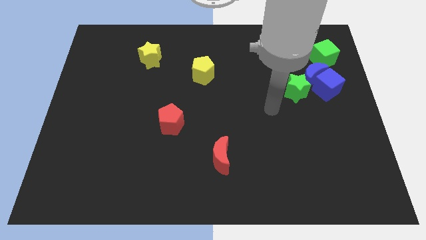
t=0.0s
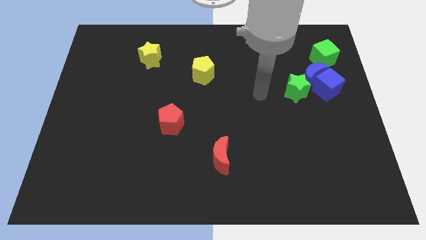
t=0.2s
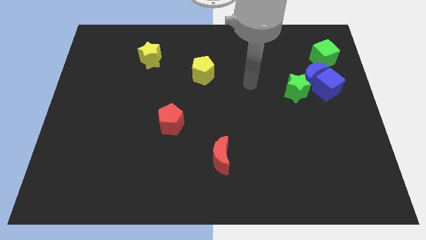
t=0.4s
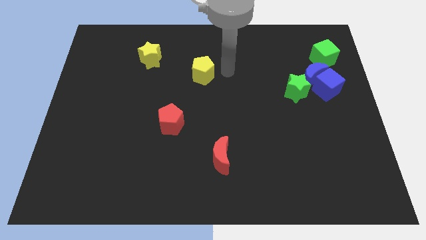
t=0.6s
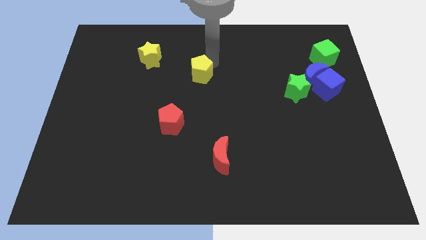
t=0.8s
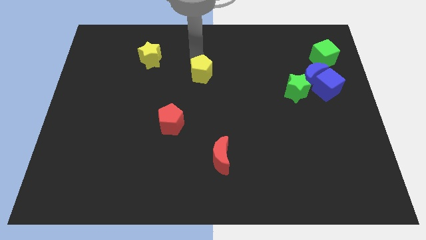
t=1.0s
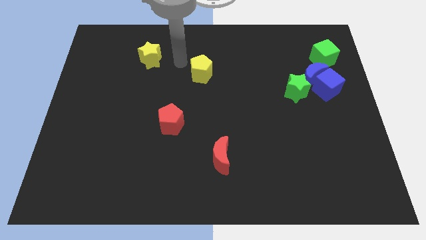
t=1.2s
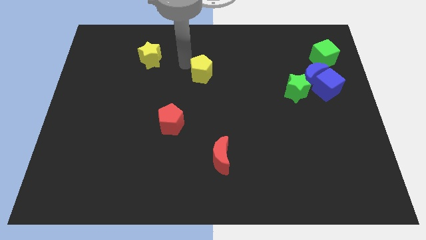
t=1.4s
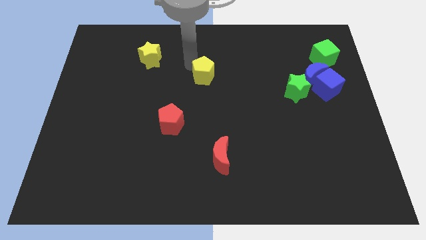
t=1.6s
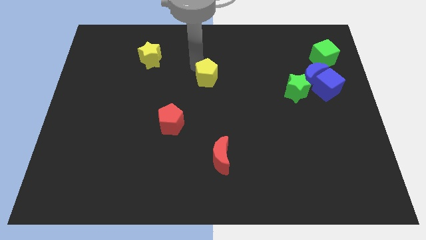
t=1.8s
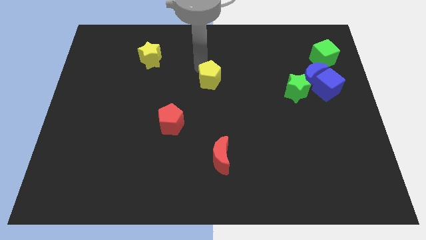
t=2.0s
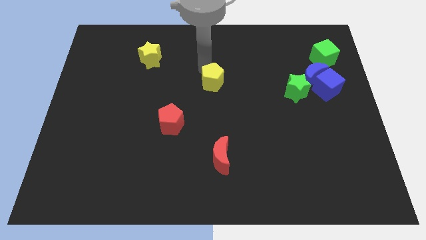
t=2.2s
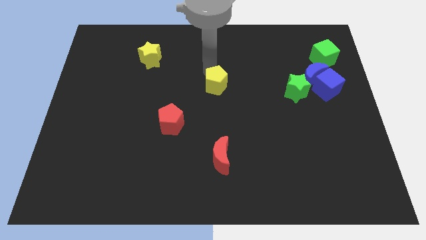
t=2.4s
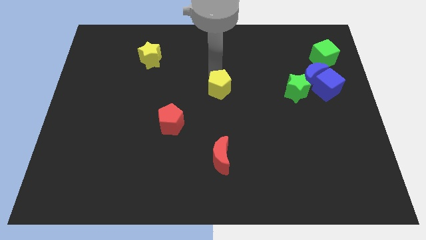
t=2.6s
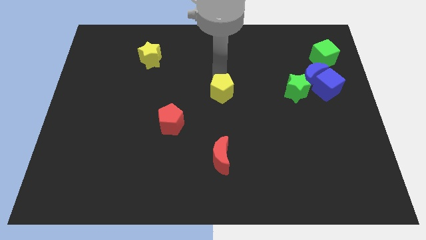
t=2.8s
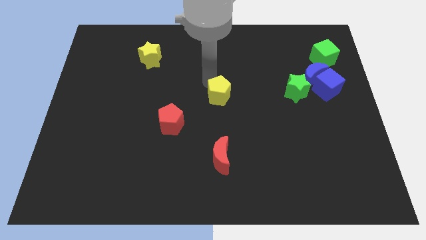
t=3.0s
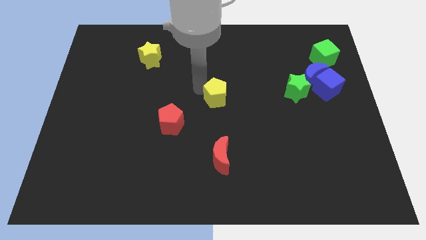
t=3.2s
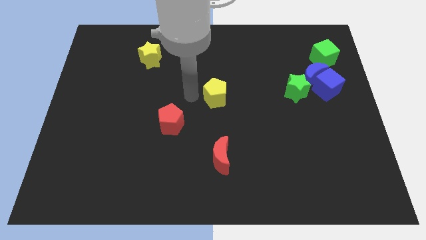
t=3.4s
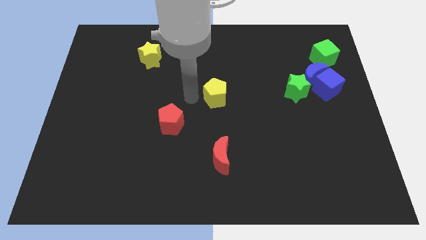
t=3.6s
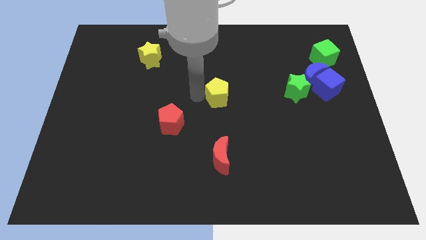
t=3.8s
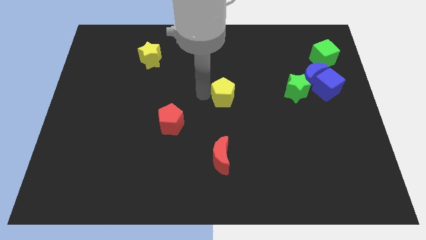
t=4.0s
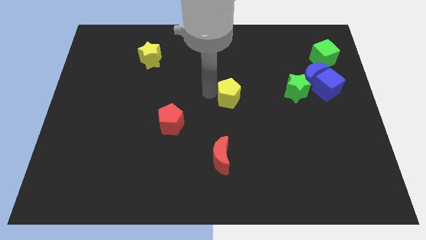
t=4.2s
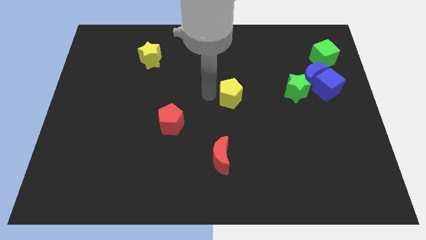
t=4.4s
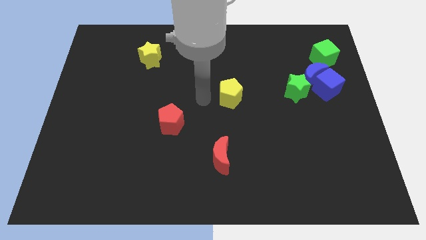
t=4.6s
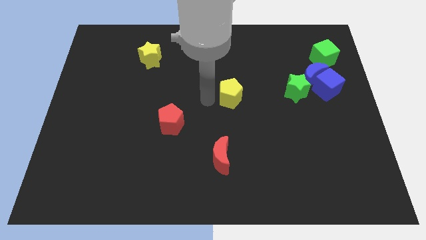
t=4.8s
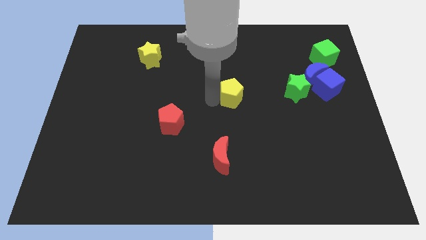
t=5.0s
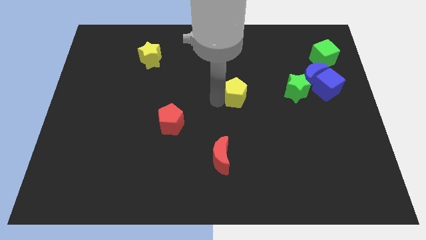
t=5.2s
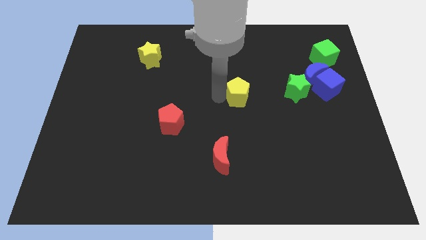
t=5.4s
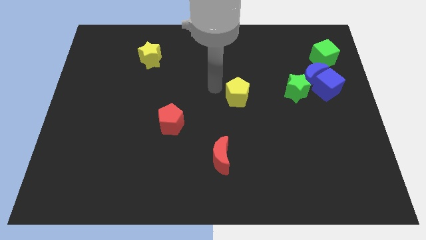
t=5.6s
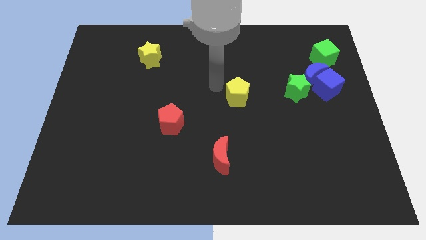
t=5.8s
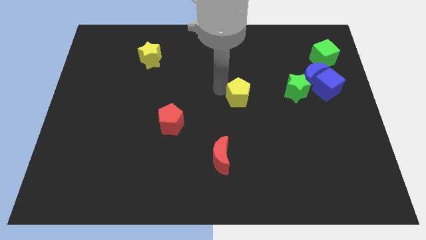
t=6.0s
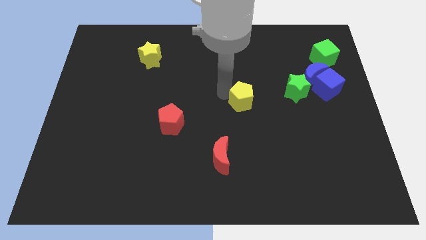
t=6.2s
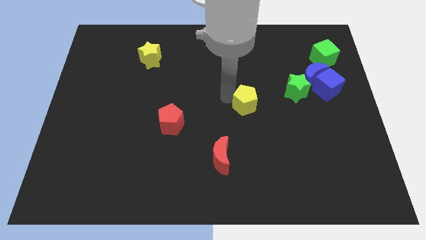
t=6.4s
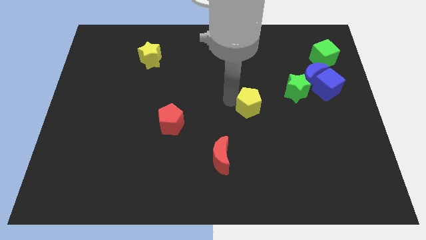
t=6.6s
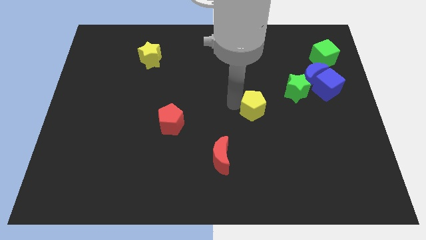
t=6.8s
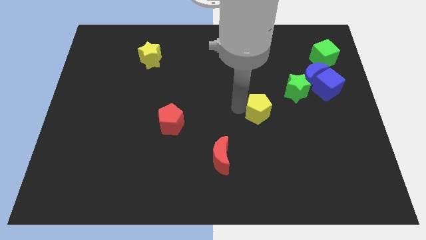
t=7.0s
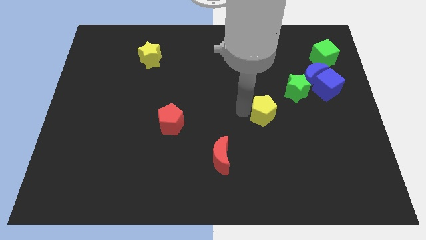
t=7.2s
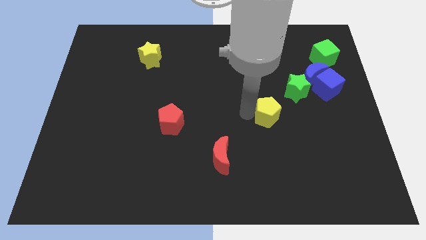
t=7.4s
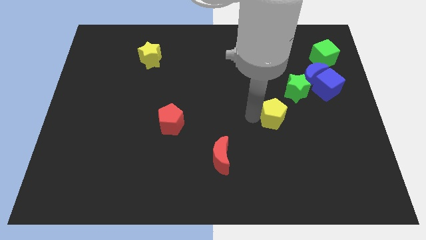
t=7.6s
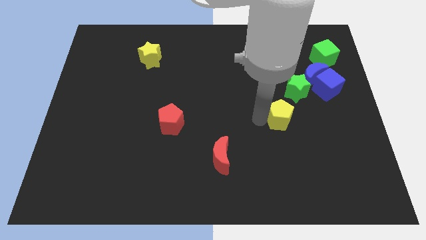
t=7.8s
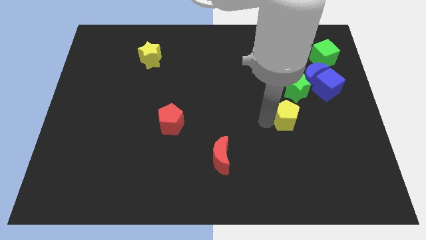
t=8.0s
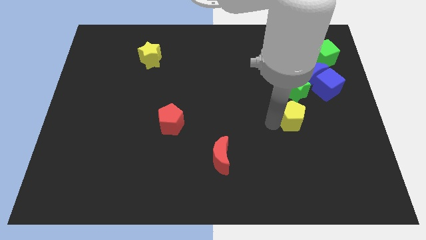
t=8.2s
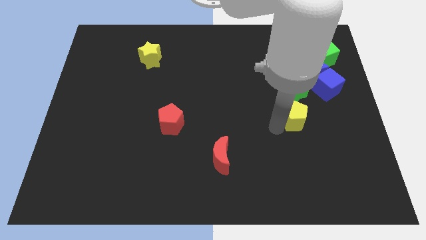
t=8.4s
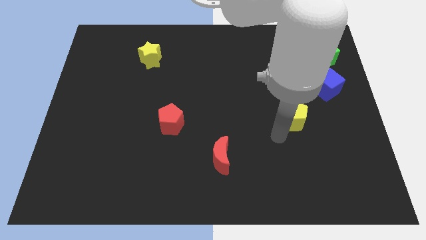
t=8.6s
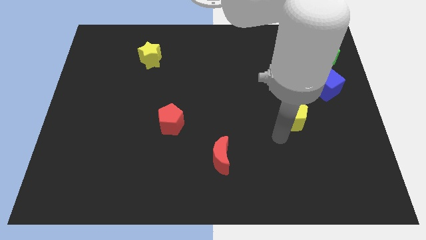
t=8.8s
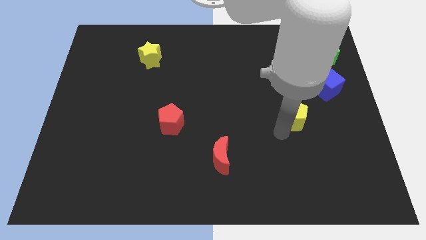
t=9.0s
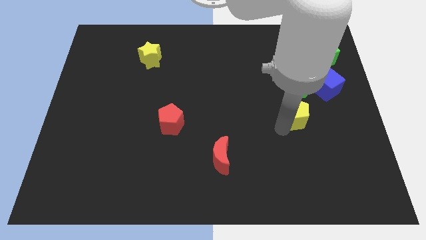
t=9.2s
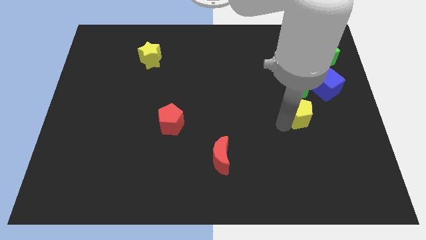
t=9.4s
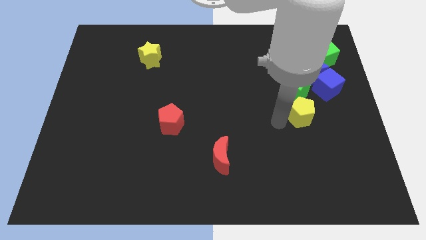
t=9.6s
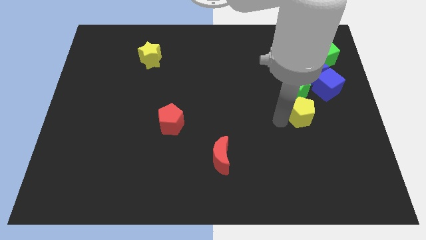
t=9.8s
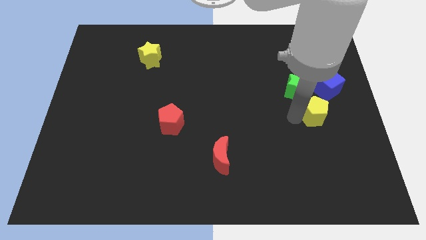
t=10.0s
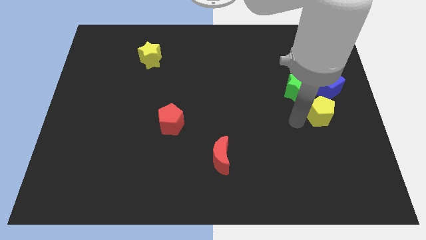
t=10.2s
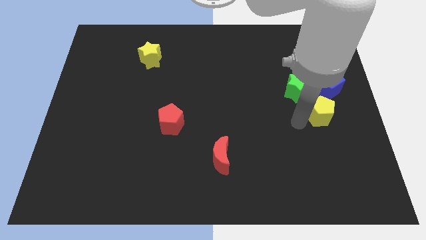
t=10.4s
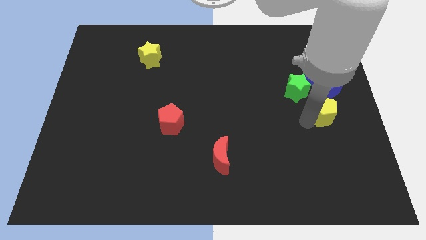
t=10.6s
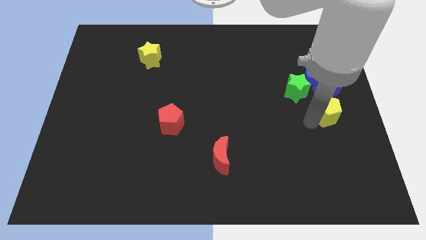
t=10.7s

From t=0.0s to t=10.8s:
put the yellow pentagon to the right side of the board
